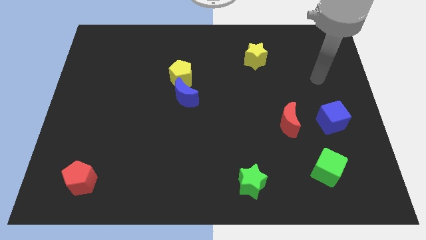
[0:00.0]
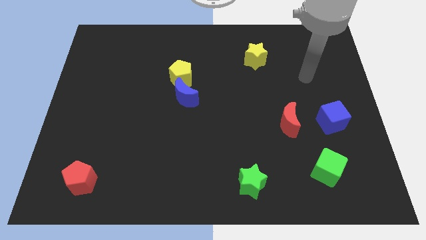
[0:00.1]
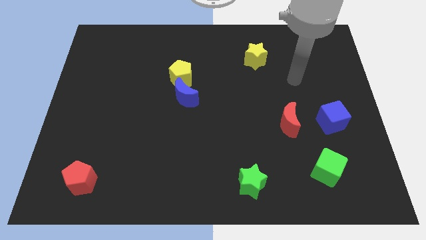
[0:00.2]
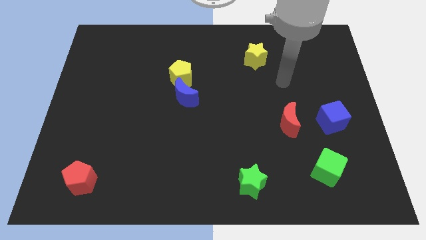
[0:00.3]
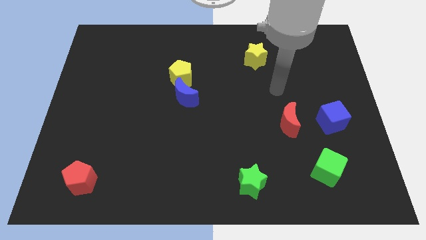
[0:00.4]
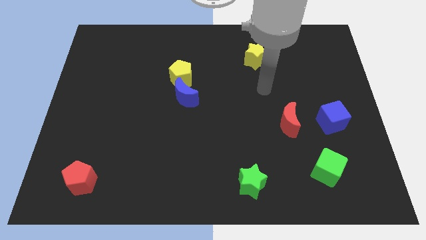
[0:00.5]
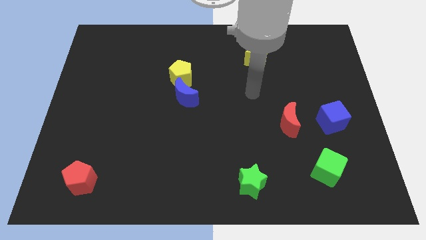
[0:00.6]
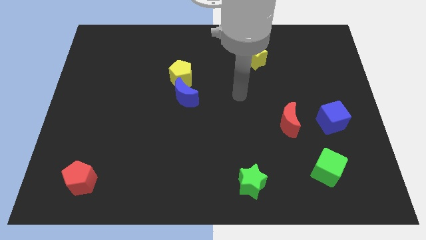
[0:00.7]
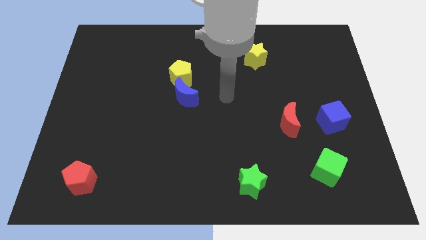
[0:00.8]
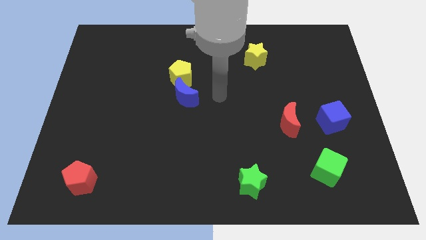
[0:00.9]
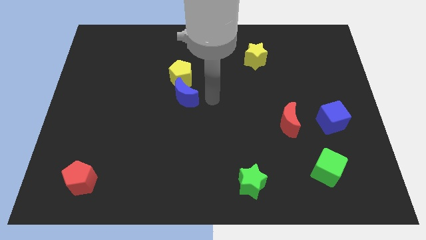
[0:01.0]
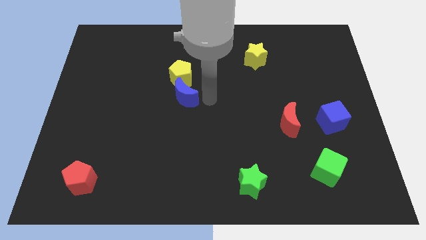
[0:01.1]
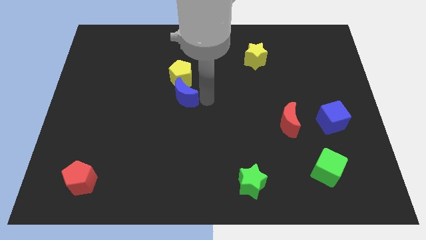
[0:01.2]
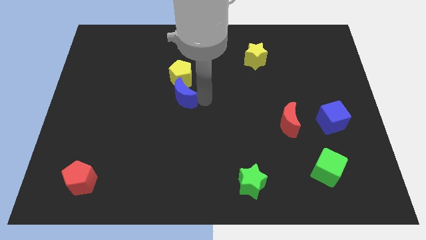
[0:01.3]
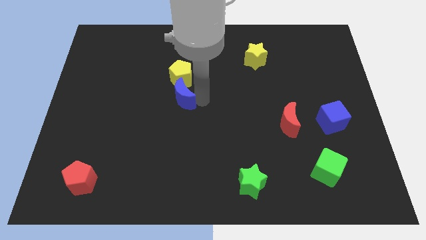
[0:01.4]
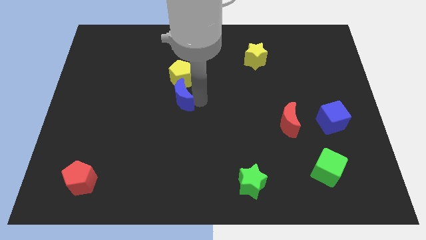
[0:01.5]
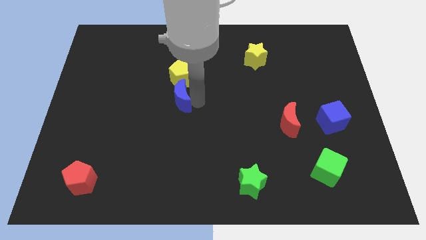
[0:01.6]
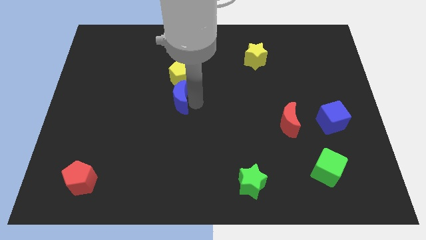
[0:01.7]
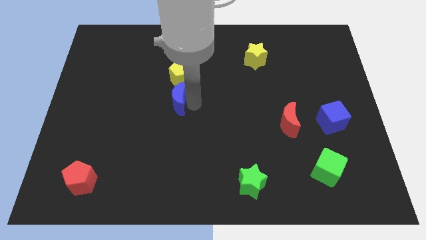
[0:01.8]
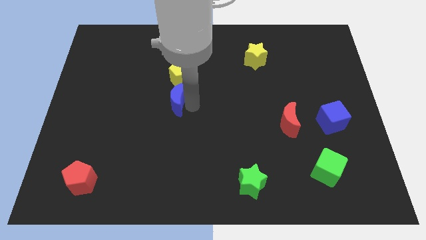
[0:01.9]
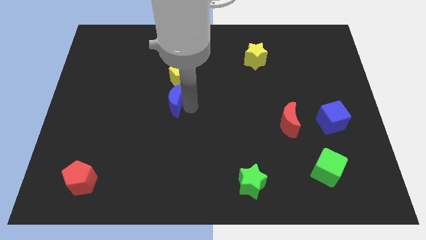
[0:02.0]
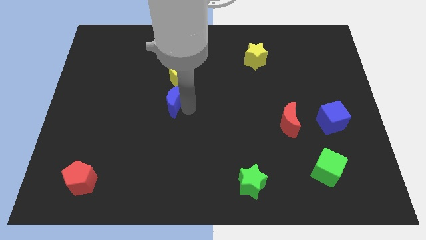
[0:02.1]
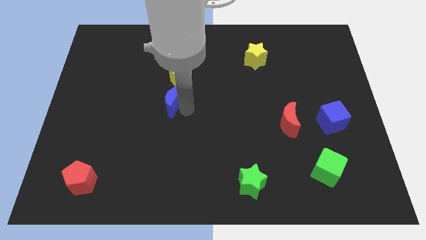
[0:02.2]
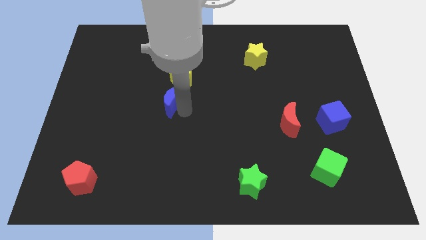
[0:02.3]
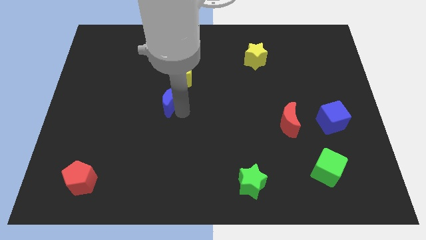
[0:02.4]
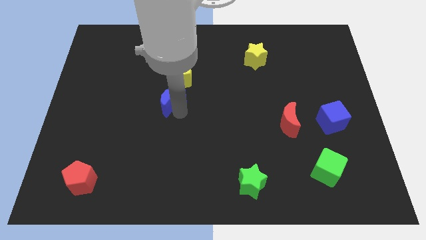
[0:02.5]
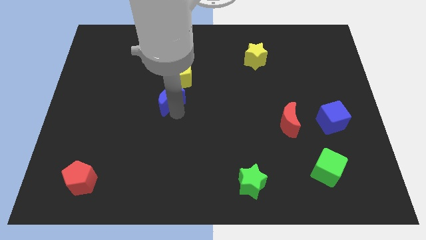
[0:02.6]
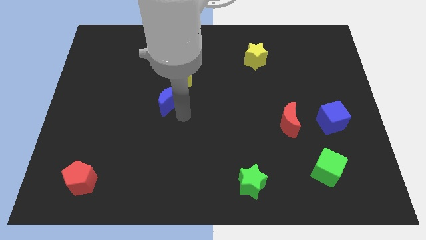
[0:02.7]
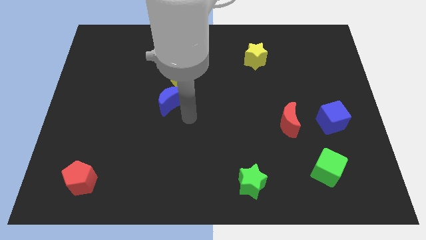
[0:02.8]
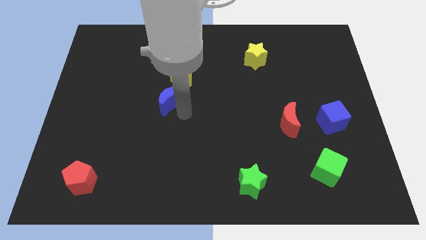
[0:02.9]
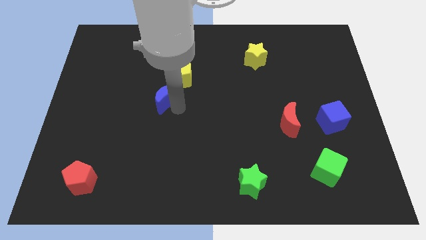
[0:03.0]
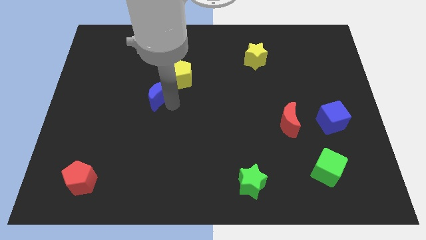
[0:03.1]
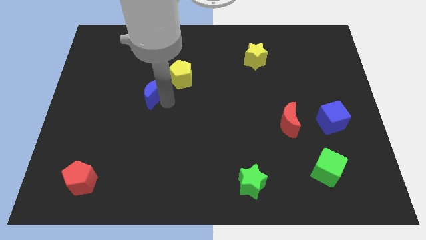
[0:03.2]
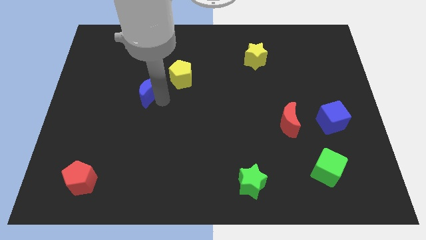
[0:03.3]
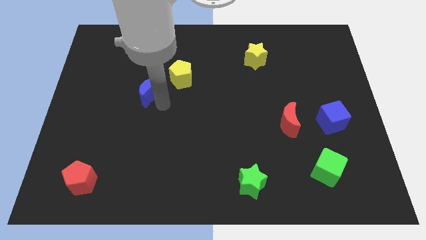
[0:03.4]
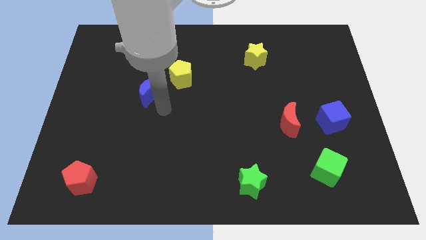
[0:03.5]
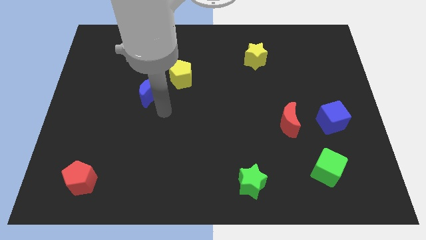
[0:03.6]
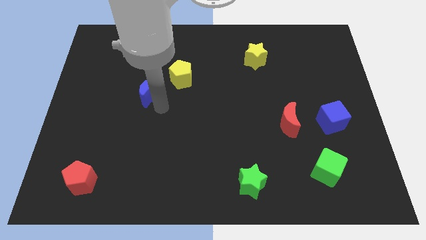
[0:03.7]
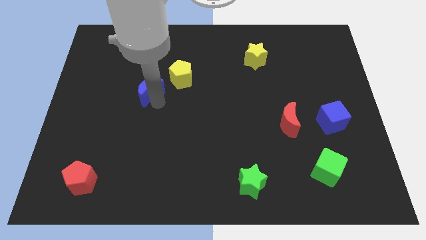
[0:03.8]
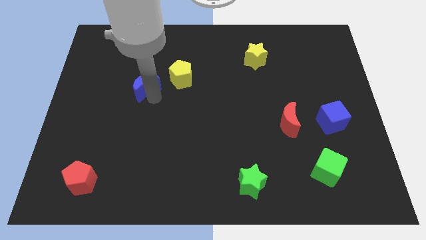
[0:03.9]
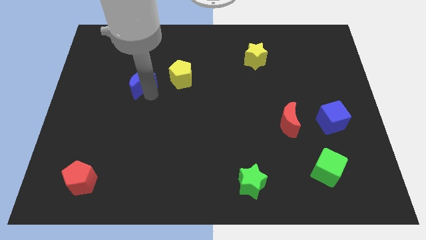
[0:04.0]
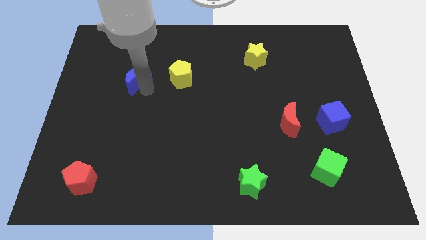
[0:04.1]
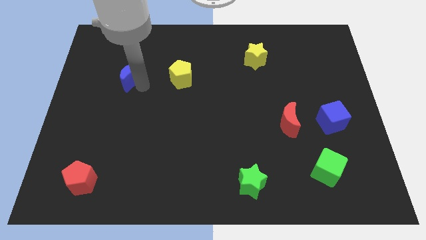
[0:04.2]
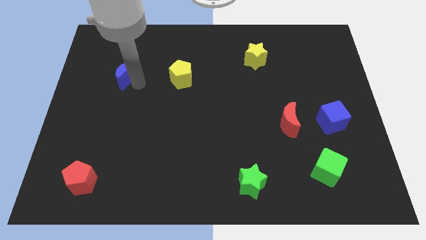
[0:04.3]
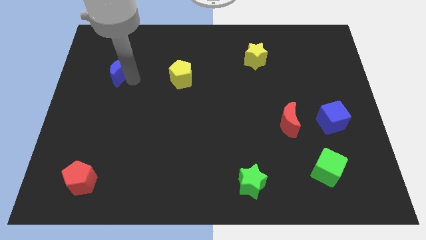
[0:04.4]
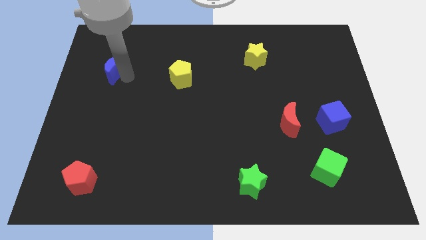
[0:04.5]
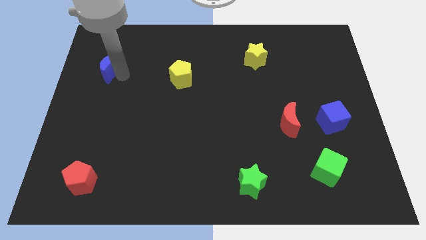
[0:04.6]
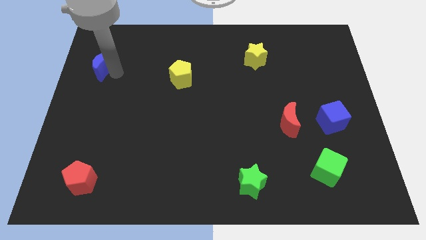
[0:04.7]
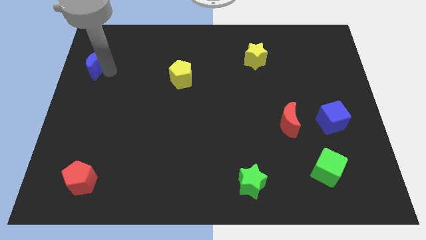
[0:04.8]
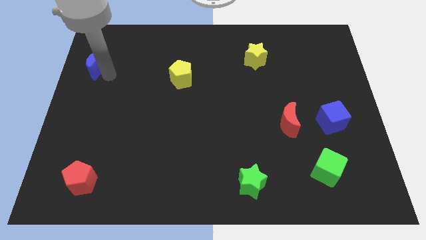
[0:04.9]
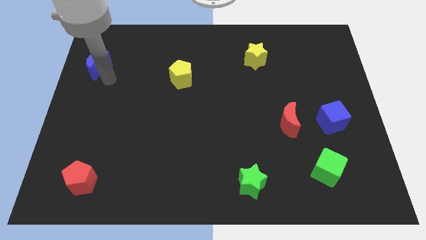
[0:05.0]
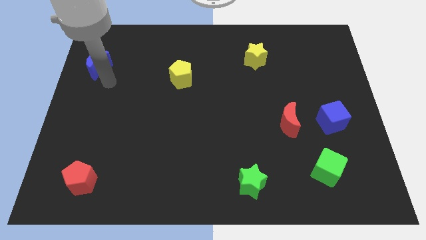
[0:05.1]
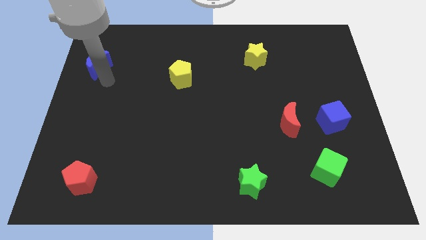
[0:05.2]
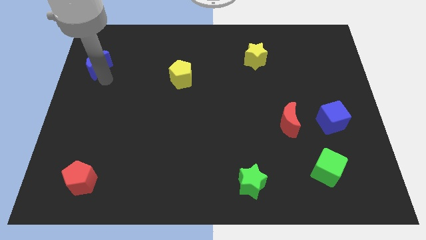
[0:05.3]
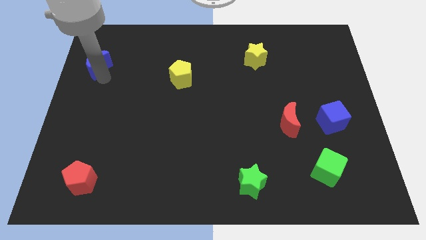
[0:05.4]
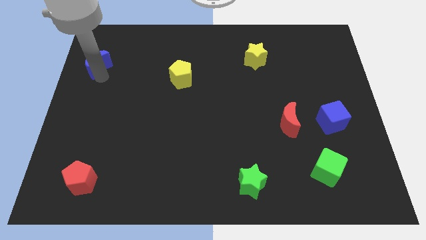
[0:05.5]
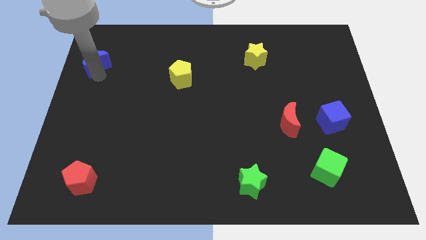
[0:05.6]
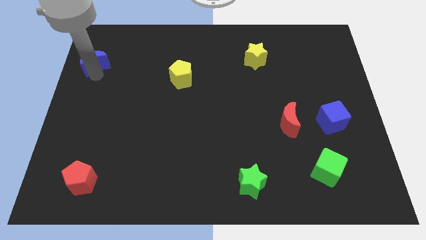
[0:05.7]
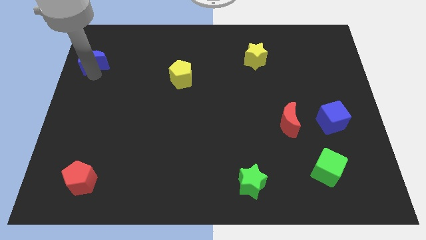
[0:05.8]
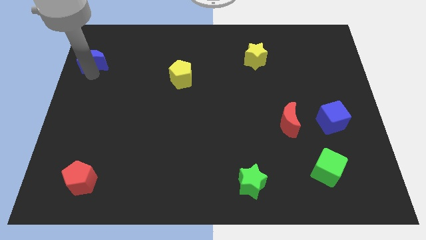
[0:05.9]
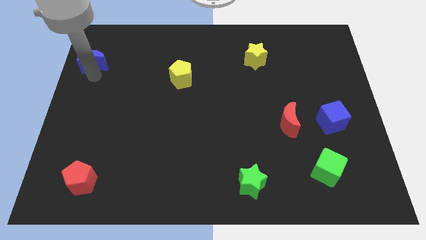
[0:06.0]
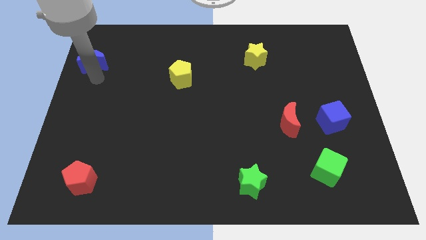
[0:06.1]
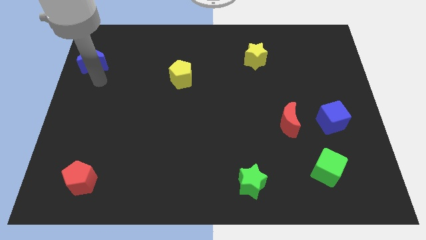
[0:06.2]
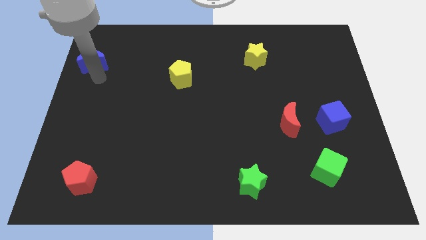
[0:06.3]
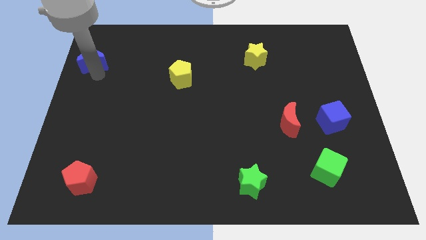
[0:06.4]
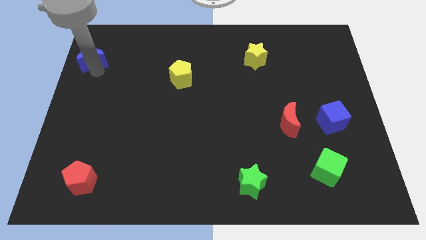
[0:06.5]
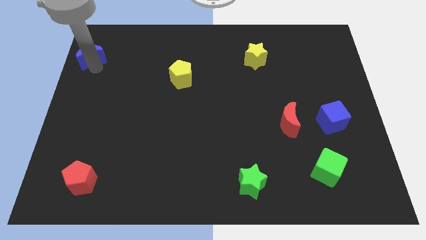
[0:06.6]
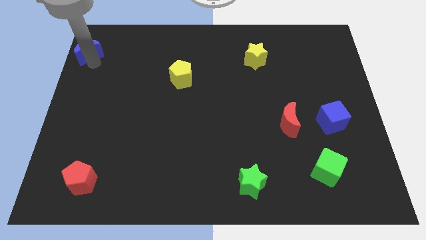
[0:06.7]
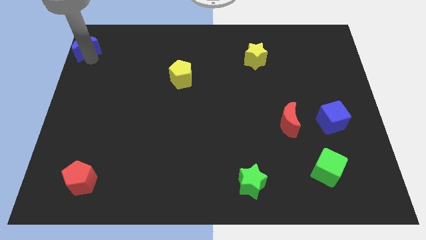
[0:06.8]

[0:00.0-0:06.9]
push the blue moon to the top left corner
